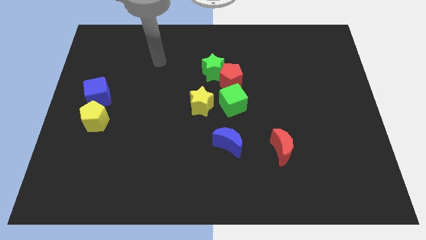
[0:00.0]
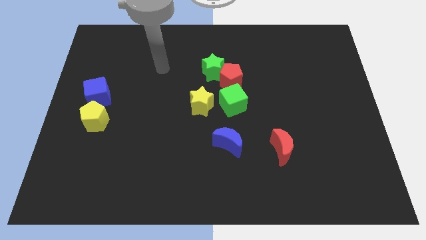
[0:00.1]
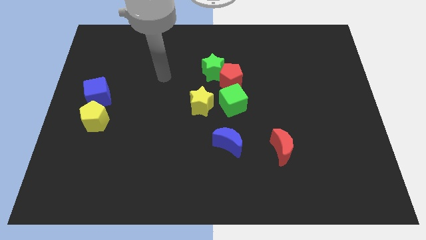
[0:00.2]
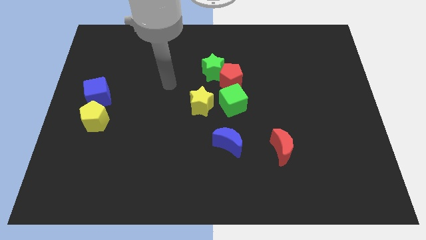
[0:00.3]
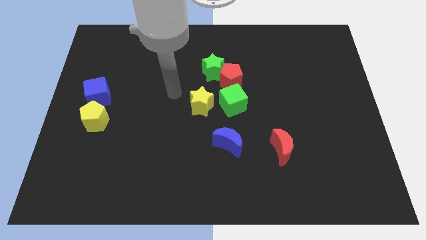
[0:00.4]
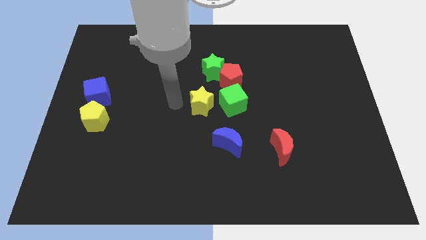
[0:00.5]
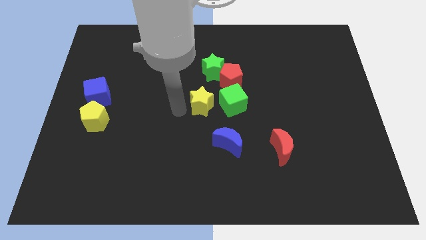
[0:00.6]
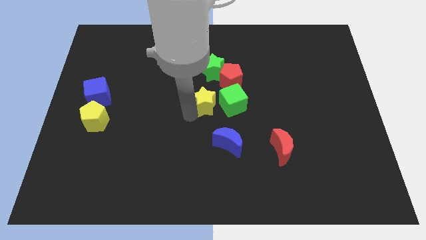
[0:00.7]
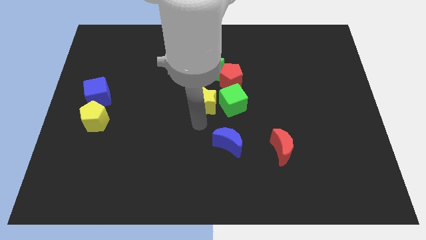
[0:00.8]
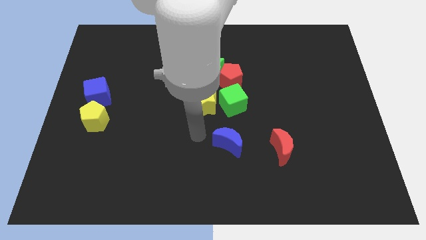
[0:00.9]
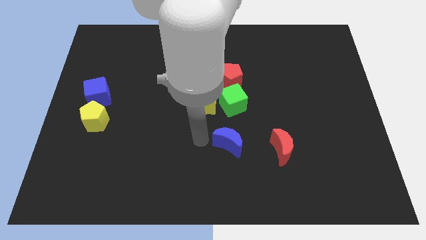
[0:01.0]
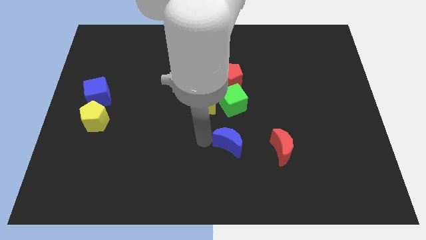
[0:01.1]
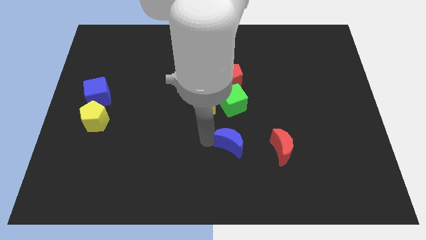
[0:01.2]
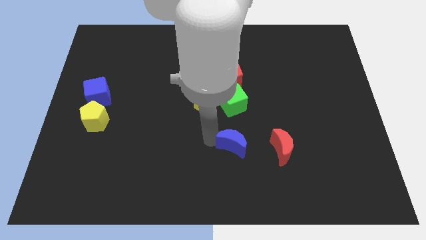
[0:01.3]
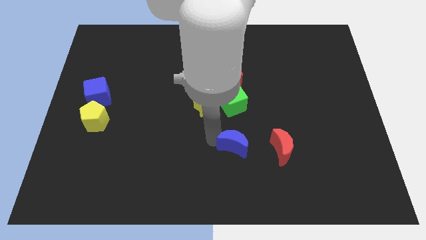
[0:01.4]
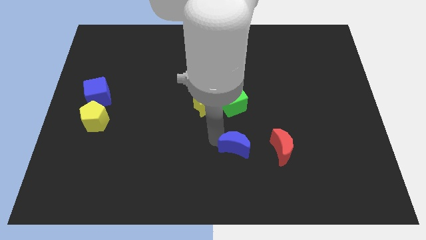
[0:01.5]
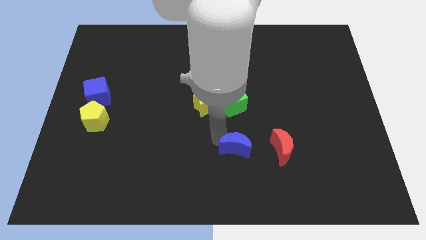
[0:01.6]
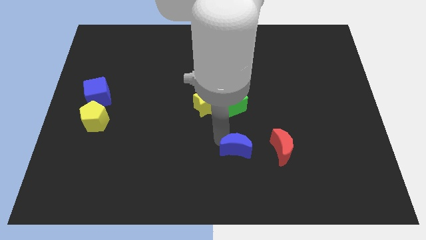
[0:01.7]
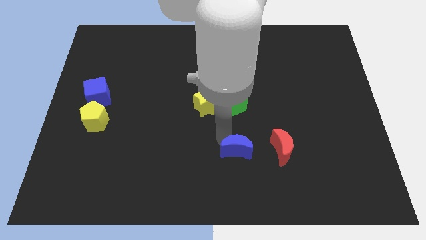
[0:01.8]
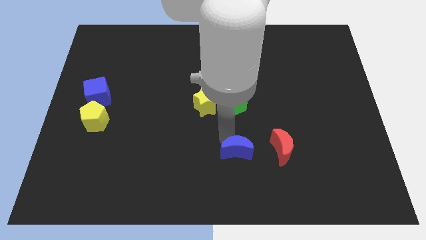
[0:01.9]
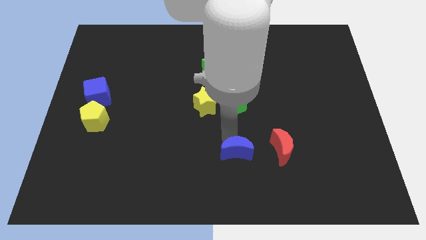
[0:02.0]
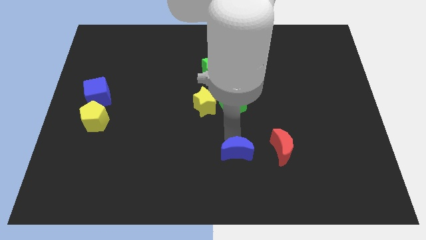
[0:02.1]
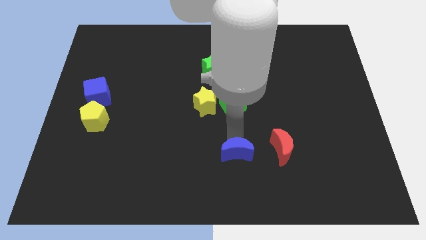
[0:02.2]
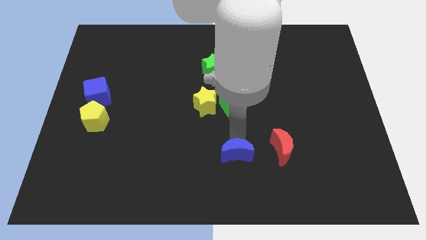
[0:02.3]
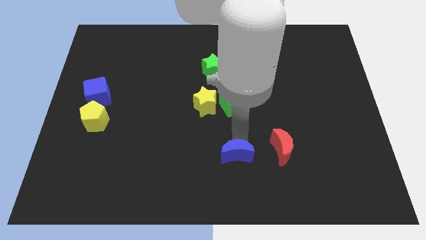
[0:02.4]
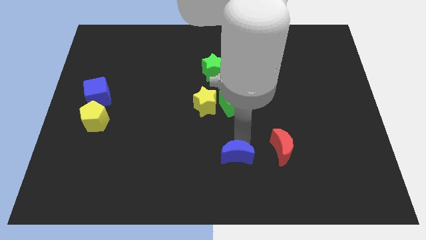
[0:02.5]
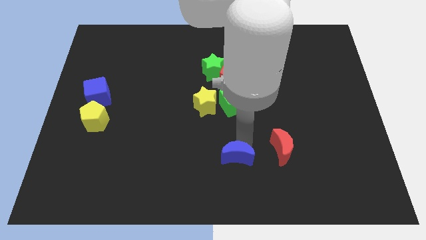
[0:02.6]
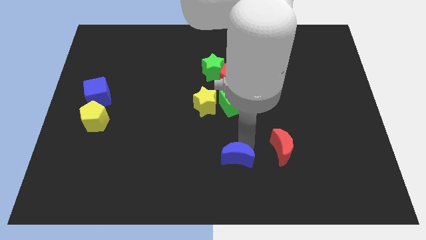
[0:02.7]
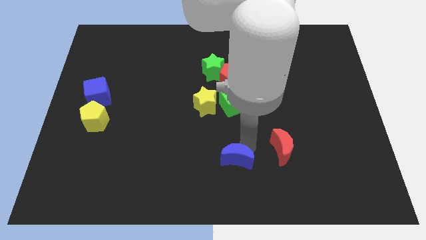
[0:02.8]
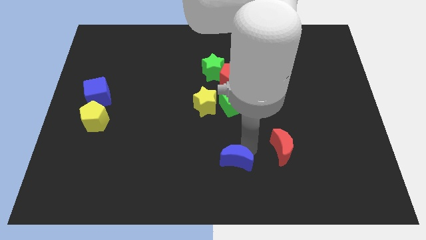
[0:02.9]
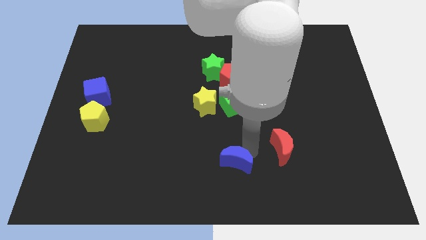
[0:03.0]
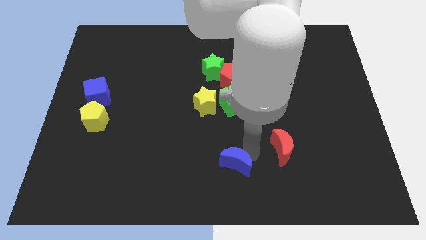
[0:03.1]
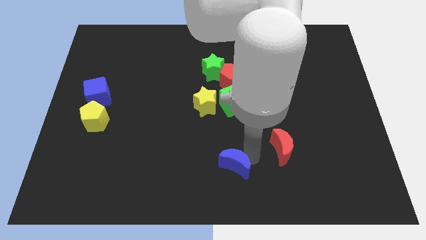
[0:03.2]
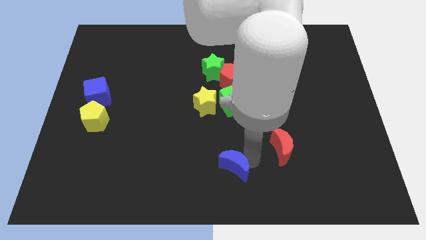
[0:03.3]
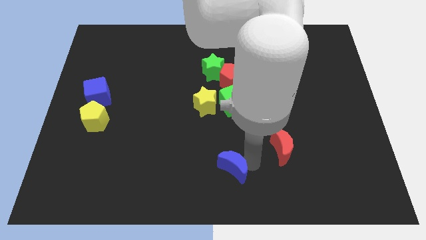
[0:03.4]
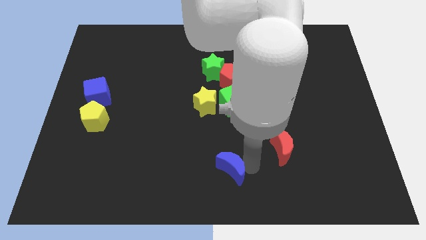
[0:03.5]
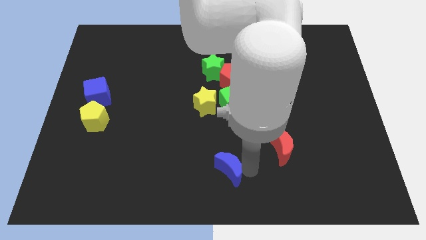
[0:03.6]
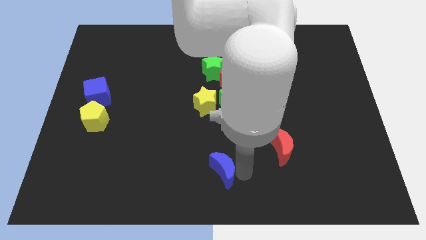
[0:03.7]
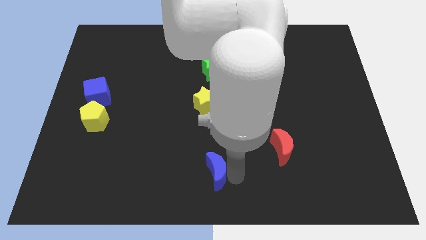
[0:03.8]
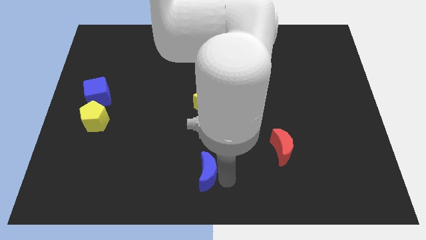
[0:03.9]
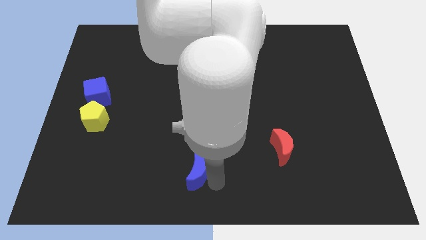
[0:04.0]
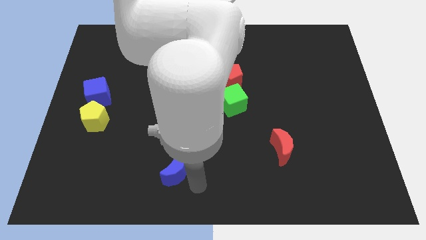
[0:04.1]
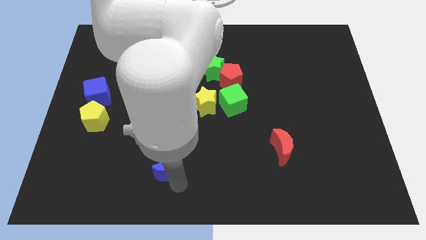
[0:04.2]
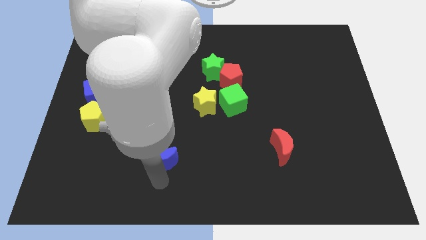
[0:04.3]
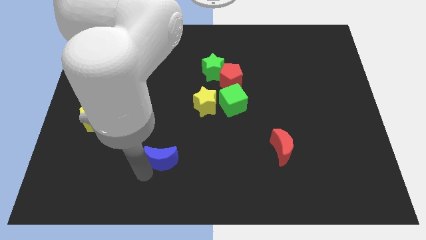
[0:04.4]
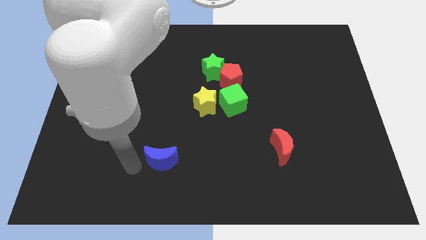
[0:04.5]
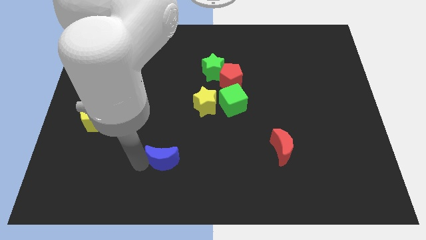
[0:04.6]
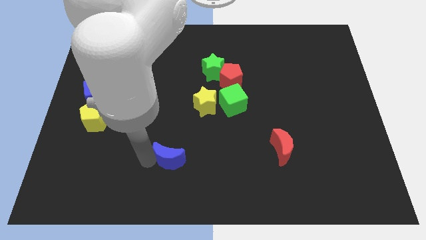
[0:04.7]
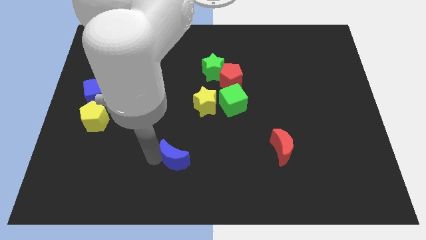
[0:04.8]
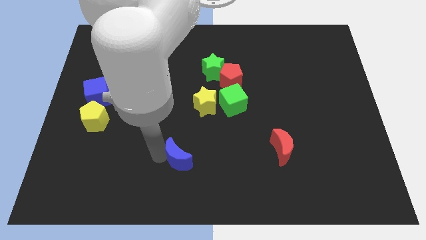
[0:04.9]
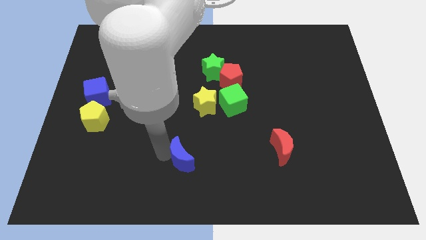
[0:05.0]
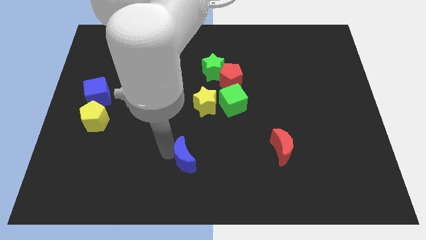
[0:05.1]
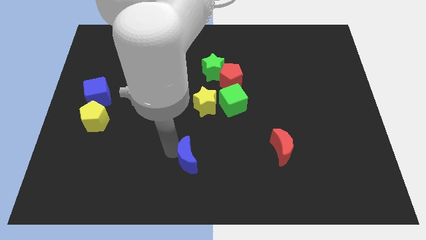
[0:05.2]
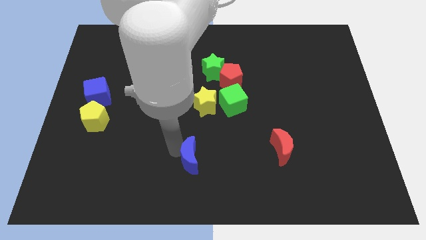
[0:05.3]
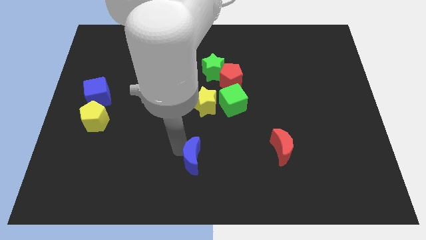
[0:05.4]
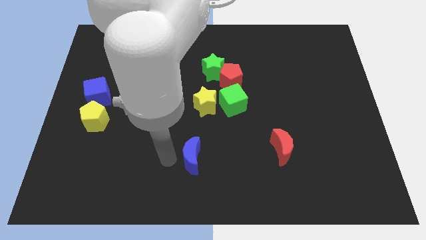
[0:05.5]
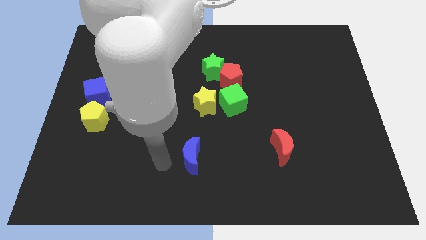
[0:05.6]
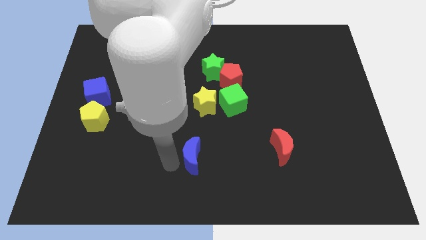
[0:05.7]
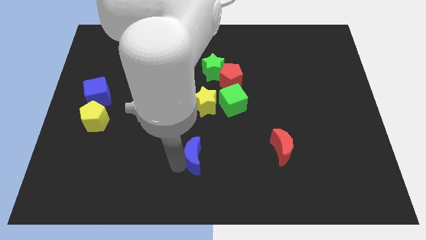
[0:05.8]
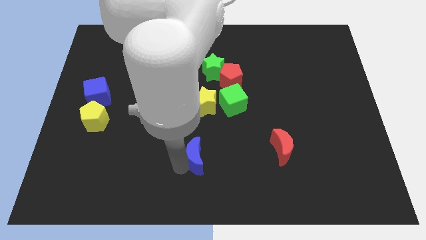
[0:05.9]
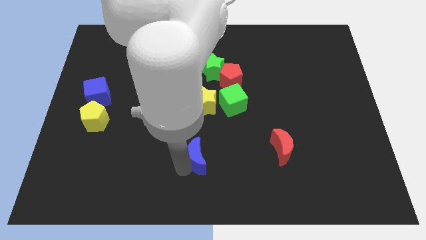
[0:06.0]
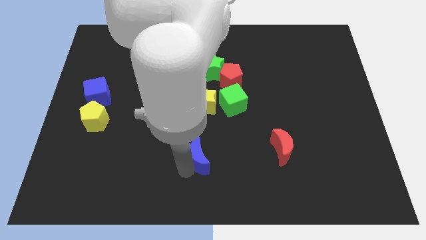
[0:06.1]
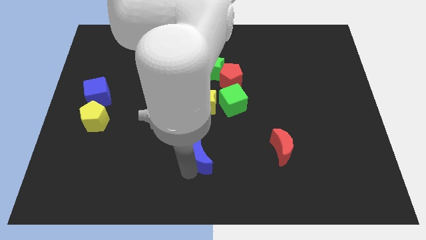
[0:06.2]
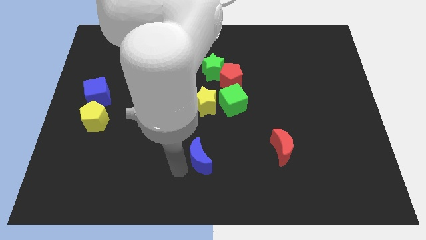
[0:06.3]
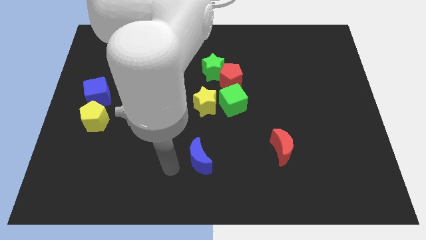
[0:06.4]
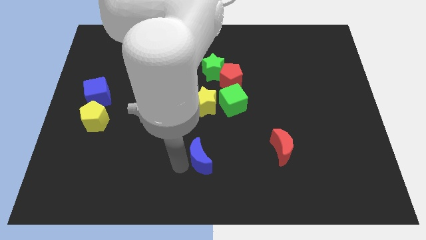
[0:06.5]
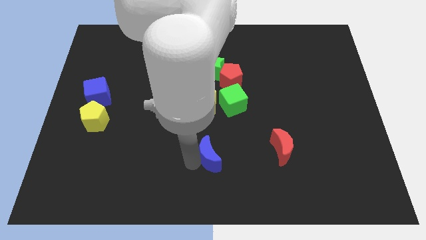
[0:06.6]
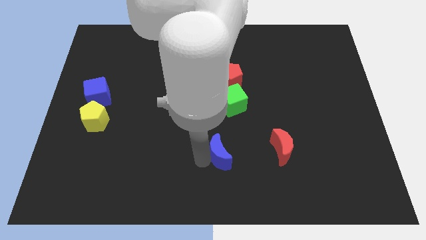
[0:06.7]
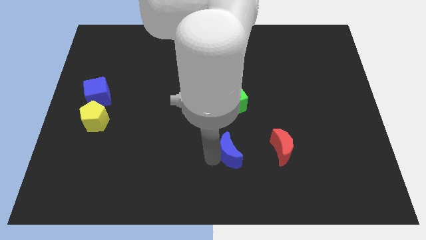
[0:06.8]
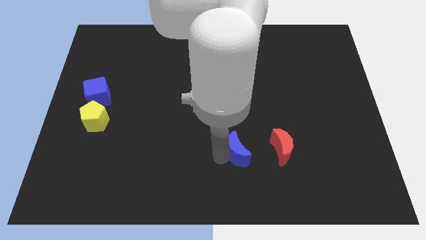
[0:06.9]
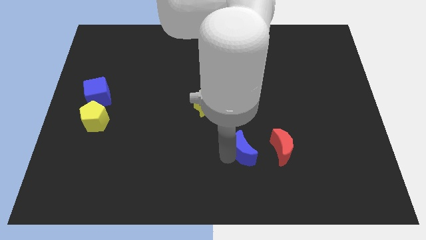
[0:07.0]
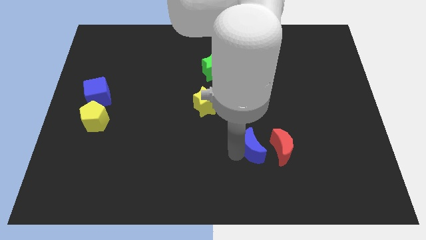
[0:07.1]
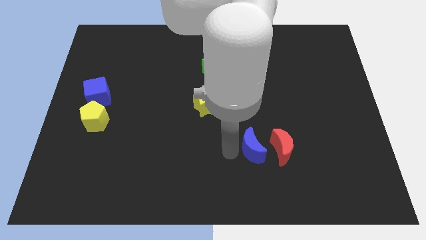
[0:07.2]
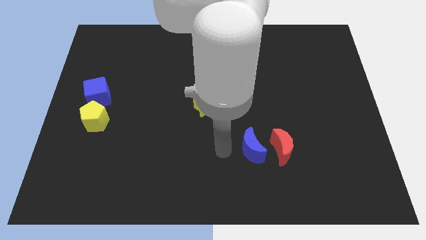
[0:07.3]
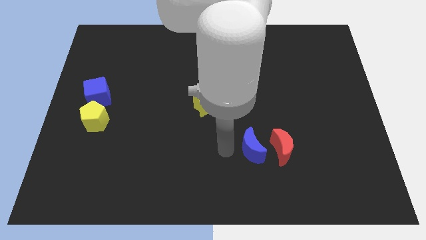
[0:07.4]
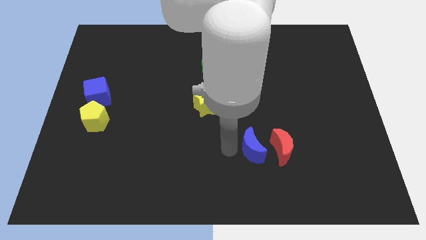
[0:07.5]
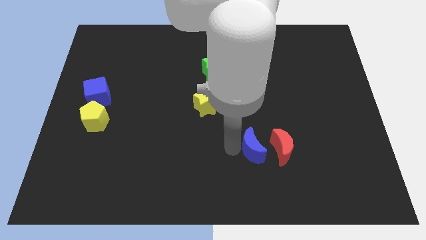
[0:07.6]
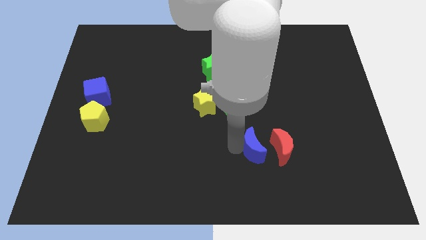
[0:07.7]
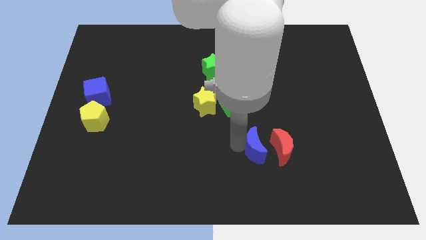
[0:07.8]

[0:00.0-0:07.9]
push the blue moon close to the red moon
